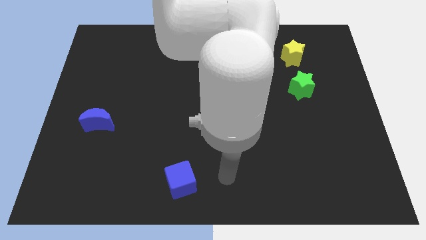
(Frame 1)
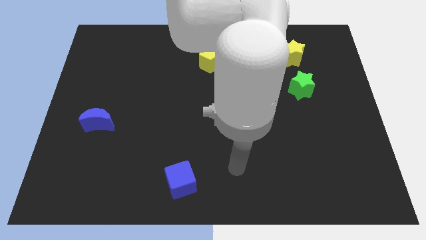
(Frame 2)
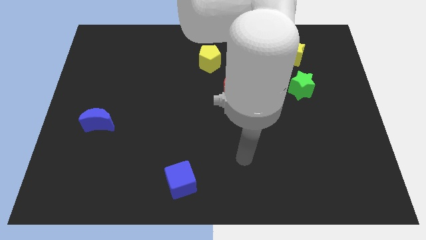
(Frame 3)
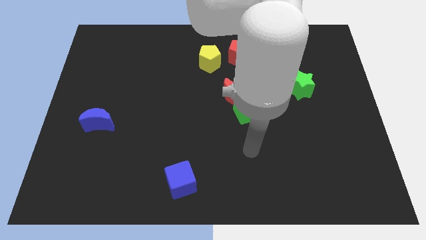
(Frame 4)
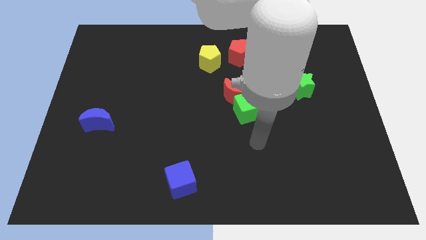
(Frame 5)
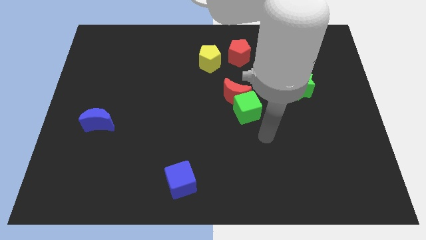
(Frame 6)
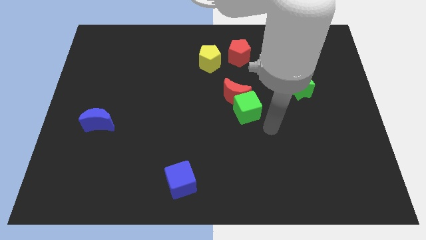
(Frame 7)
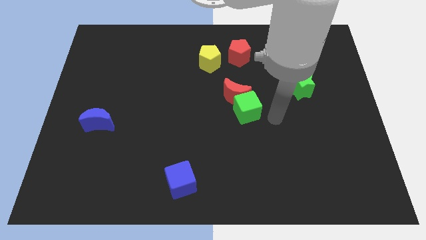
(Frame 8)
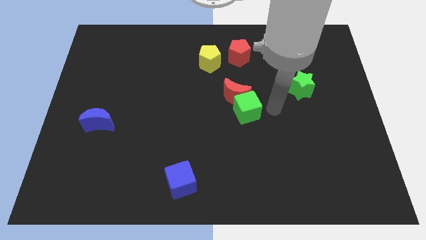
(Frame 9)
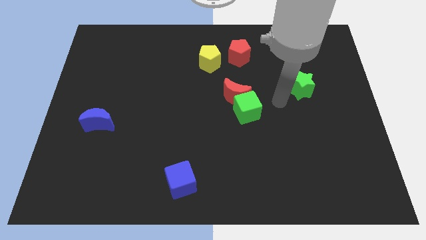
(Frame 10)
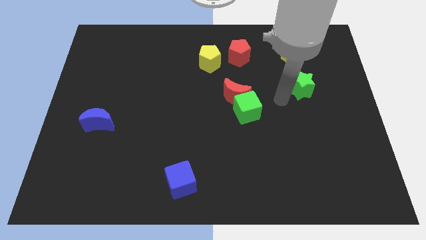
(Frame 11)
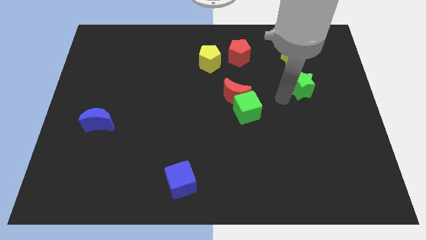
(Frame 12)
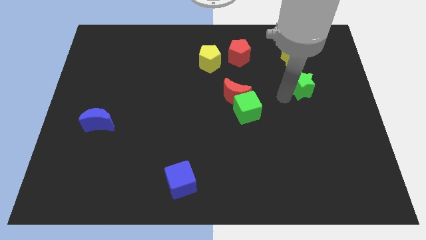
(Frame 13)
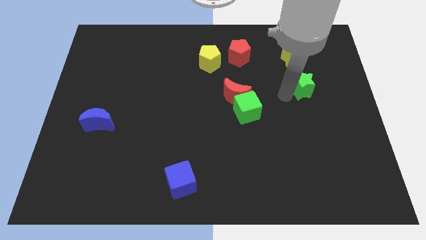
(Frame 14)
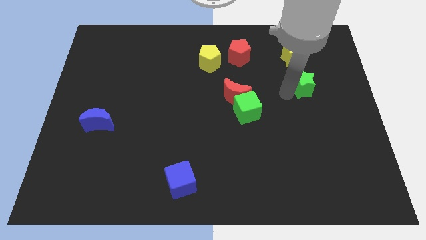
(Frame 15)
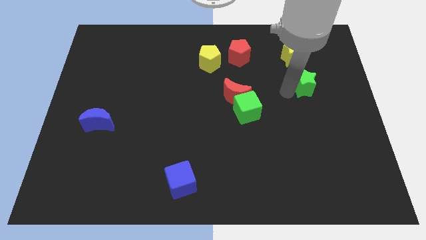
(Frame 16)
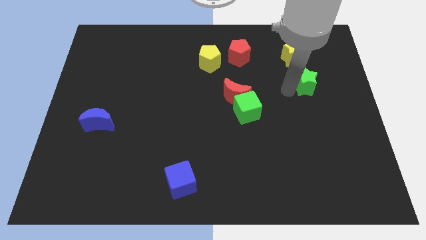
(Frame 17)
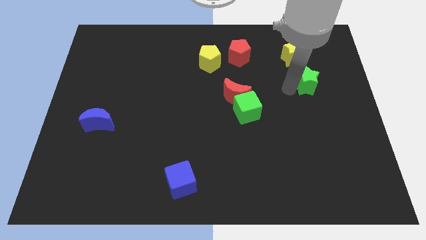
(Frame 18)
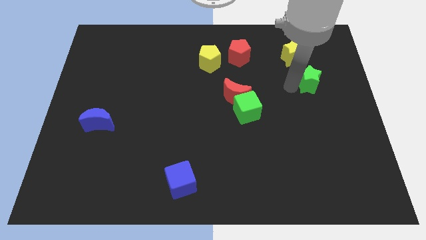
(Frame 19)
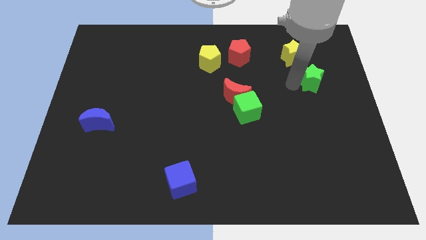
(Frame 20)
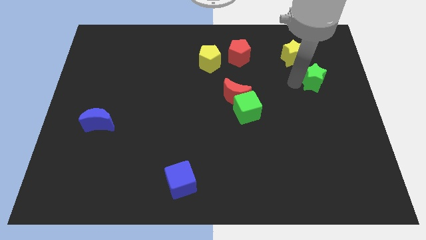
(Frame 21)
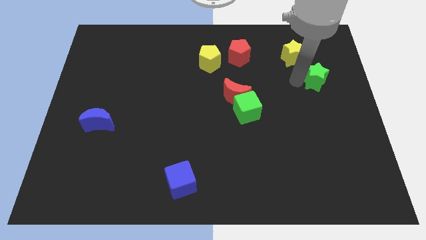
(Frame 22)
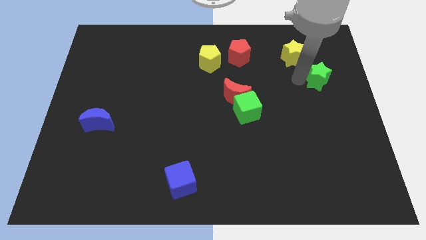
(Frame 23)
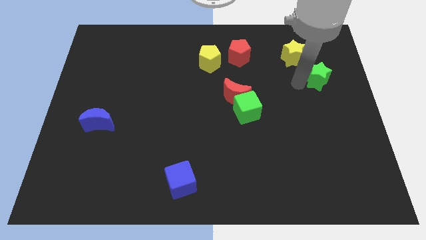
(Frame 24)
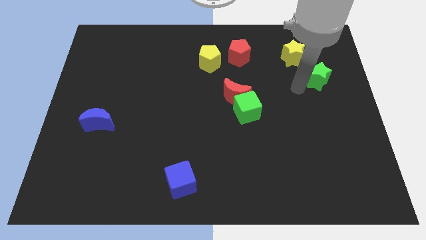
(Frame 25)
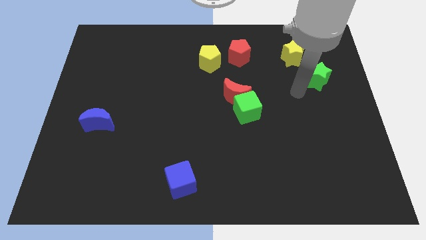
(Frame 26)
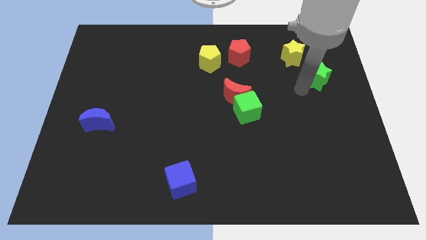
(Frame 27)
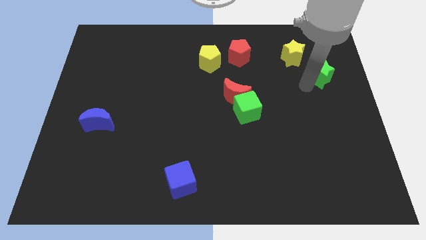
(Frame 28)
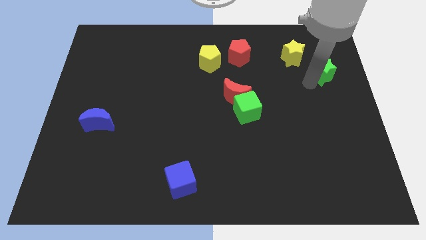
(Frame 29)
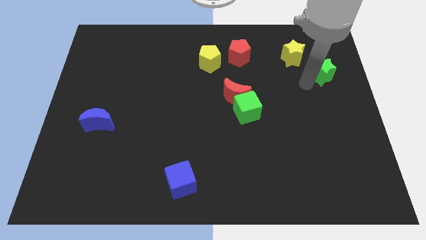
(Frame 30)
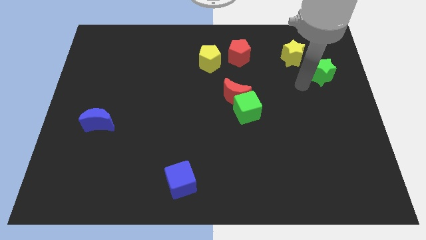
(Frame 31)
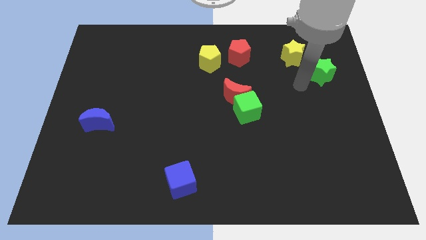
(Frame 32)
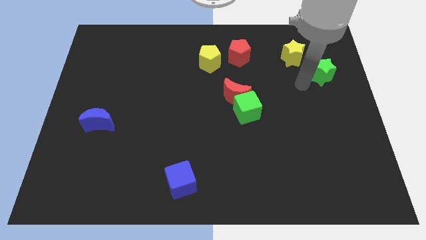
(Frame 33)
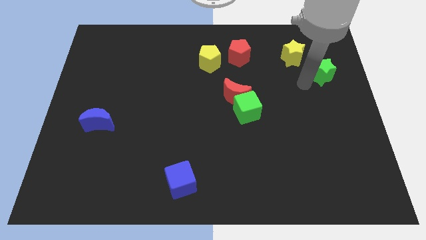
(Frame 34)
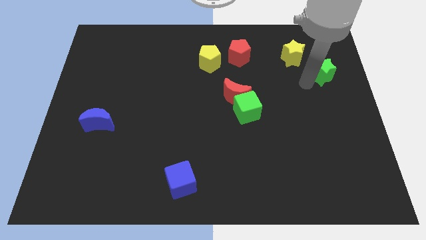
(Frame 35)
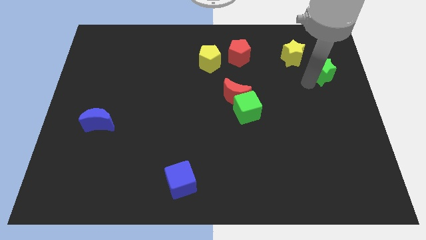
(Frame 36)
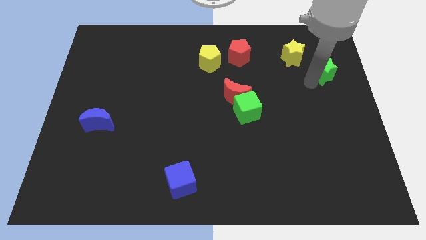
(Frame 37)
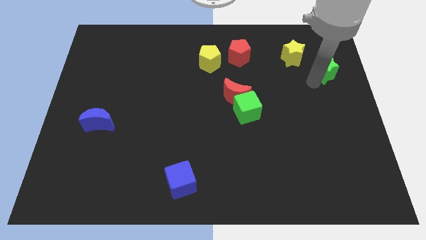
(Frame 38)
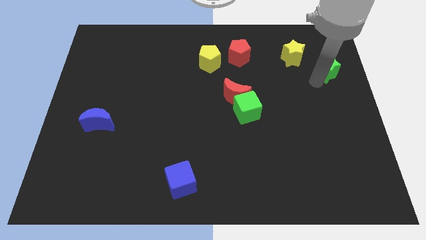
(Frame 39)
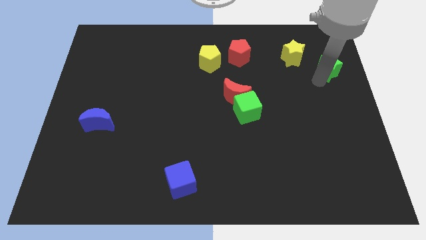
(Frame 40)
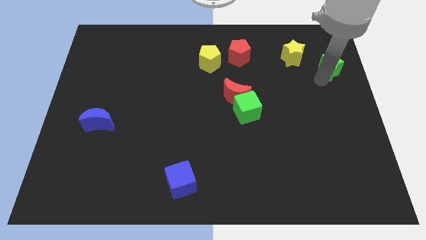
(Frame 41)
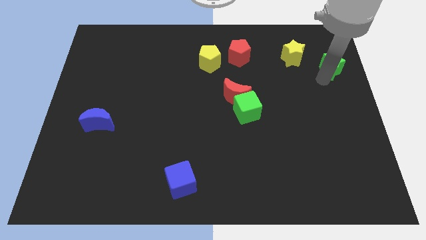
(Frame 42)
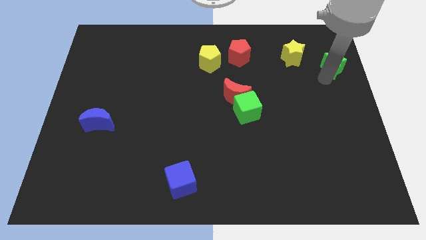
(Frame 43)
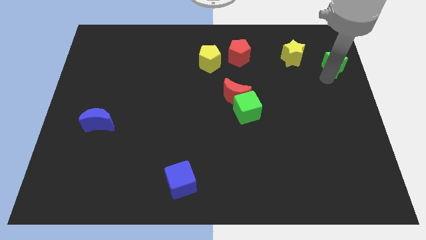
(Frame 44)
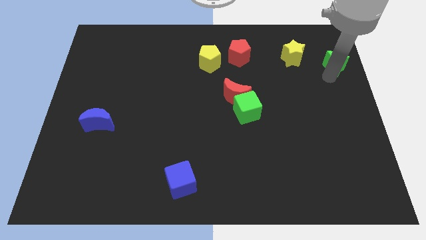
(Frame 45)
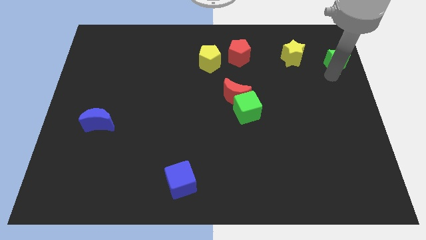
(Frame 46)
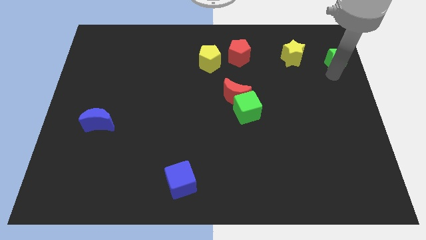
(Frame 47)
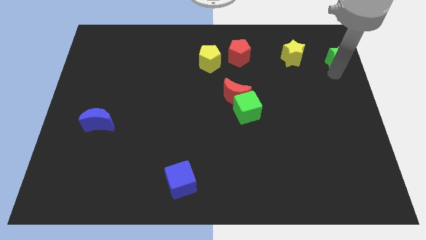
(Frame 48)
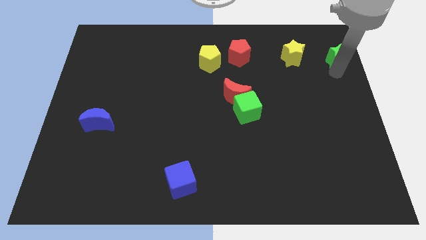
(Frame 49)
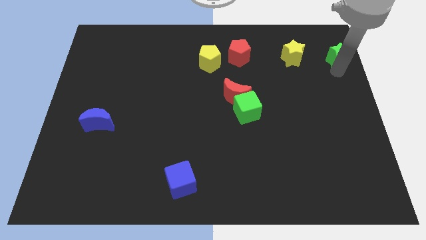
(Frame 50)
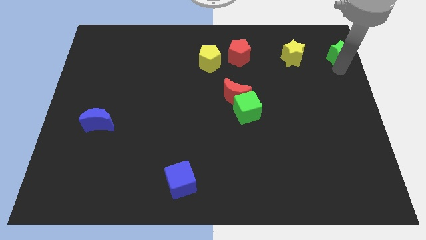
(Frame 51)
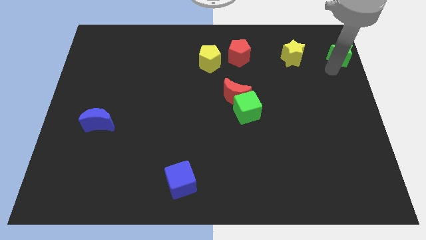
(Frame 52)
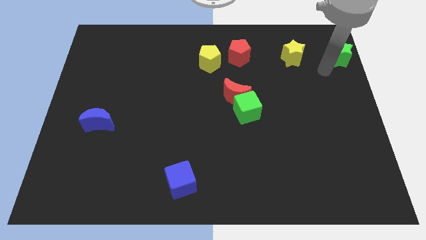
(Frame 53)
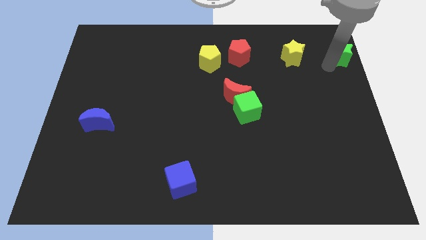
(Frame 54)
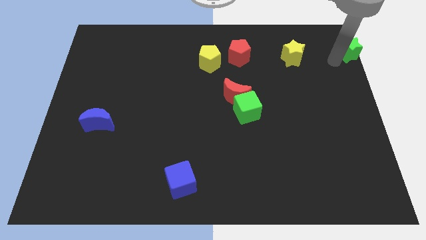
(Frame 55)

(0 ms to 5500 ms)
put the green star to the top right corner
